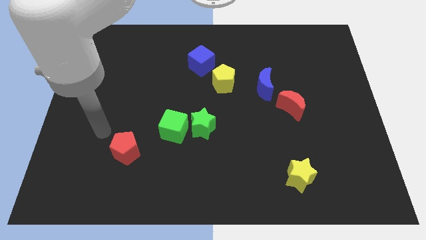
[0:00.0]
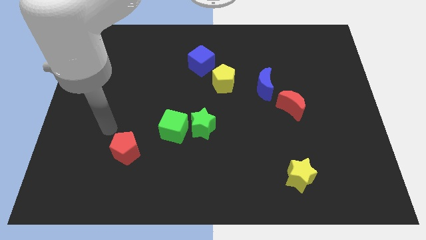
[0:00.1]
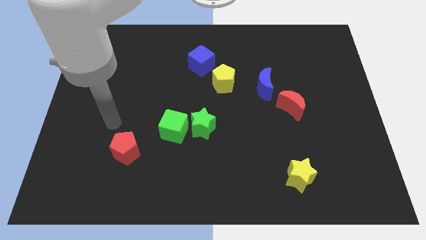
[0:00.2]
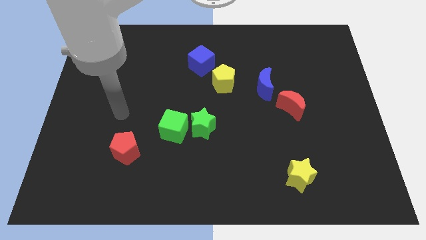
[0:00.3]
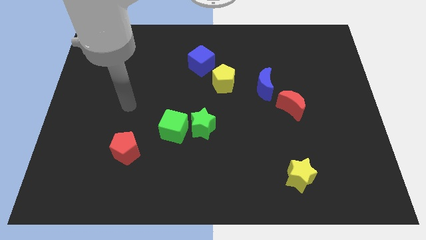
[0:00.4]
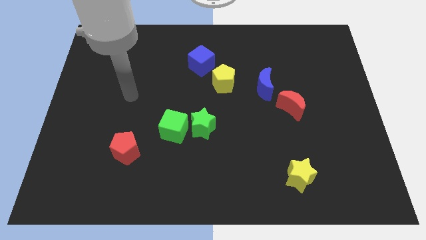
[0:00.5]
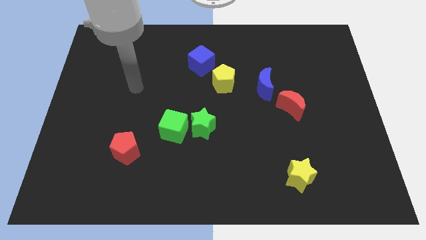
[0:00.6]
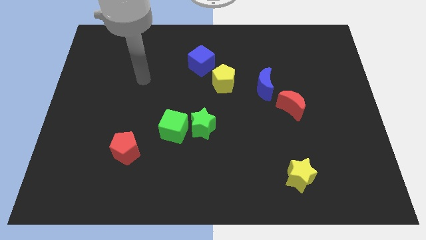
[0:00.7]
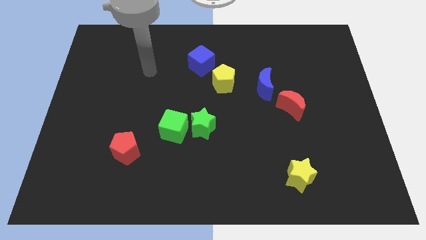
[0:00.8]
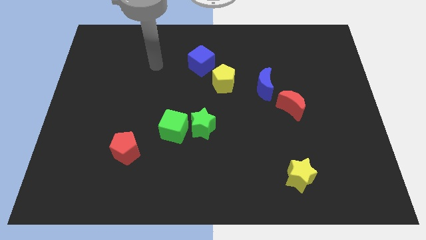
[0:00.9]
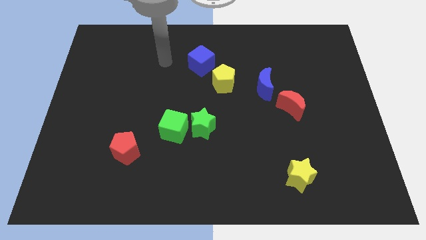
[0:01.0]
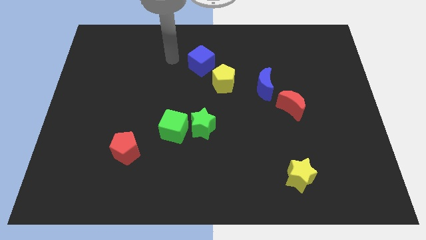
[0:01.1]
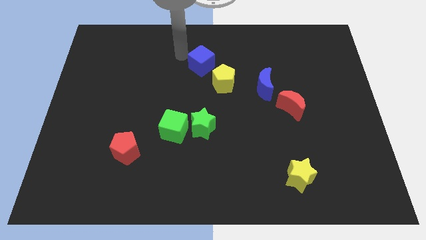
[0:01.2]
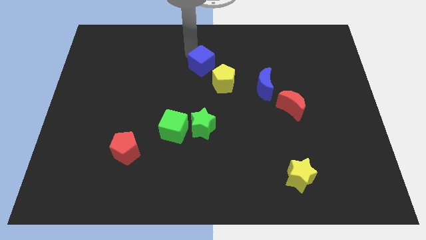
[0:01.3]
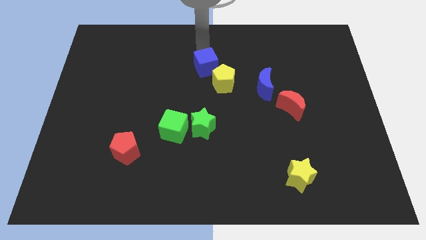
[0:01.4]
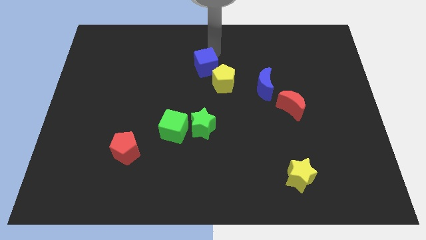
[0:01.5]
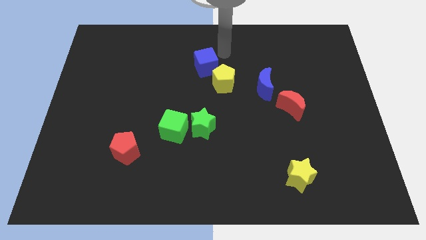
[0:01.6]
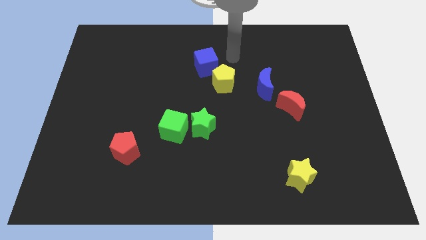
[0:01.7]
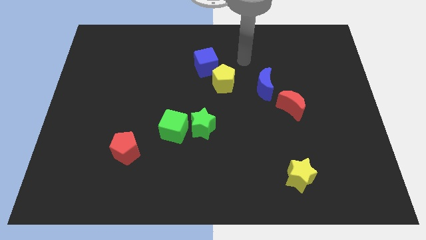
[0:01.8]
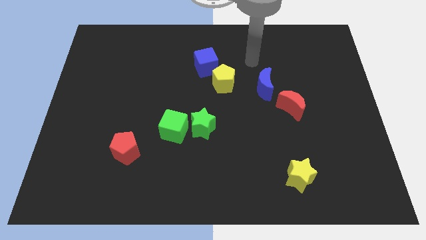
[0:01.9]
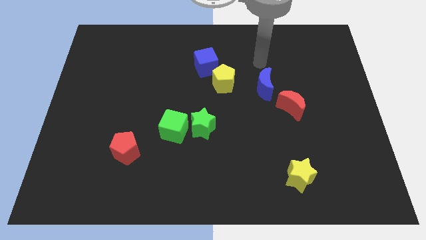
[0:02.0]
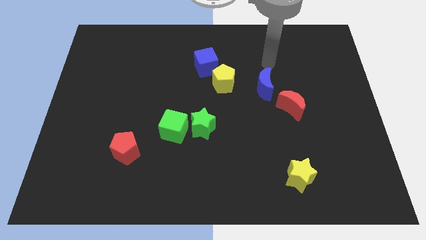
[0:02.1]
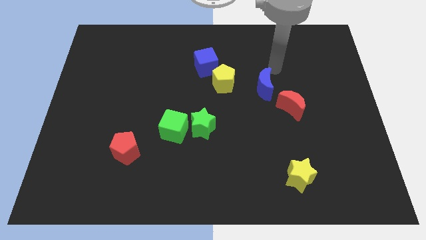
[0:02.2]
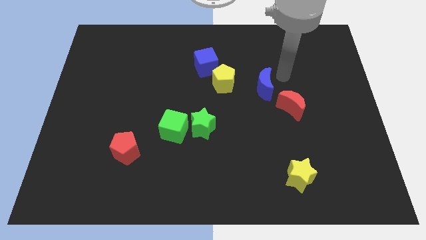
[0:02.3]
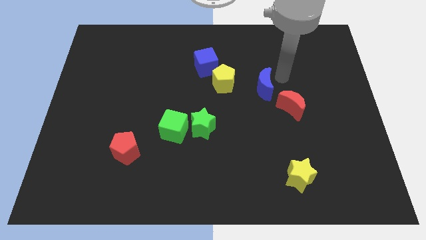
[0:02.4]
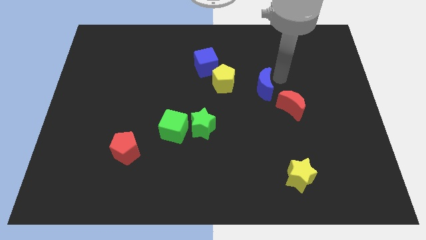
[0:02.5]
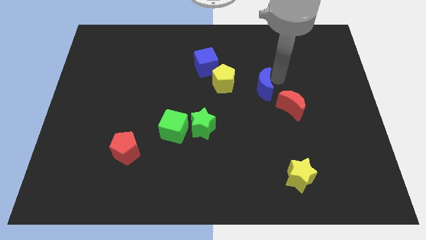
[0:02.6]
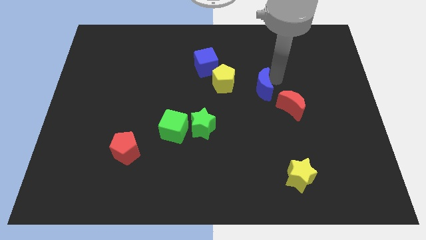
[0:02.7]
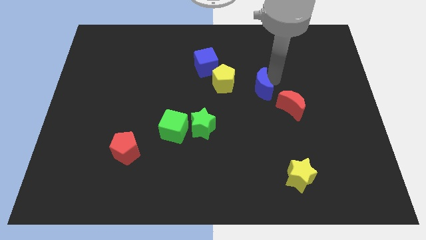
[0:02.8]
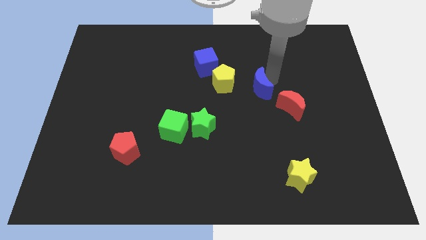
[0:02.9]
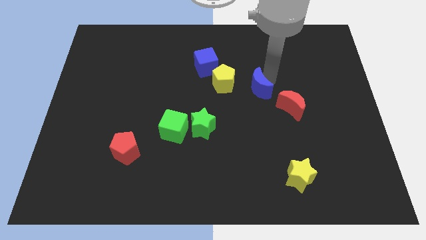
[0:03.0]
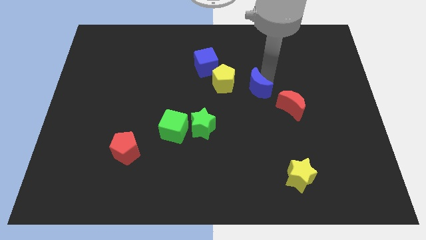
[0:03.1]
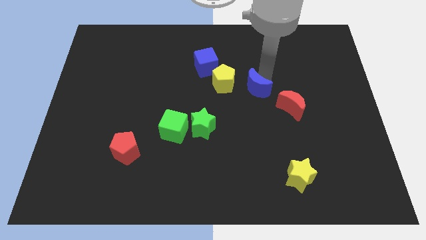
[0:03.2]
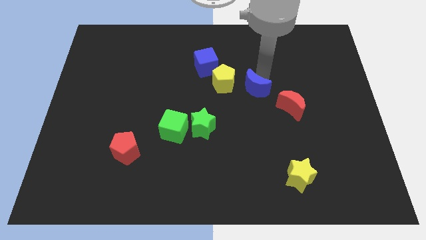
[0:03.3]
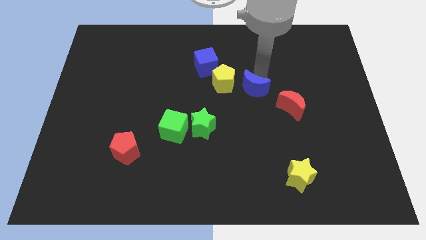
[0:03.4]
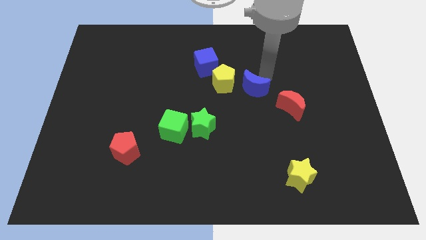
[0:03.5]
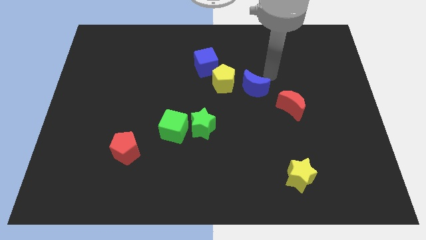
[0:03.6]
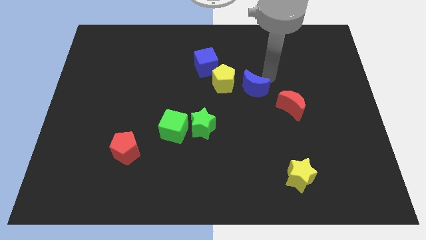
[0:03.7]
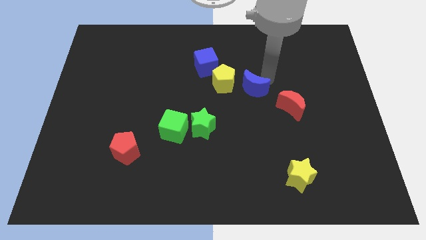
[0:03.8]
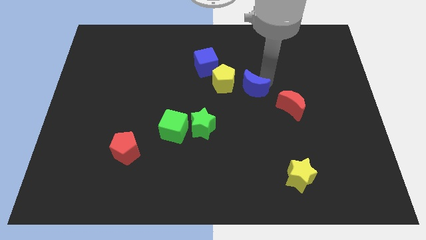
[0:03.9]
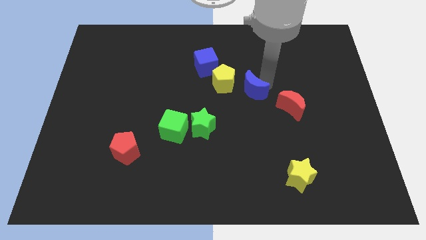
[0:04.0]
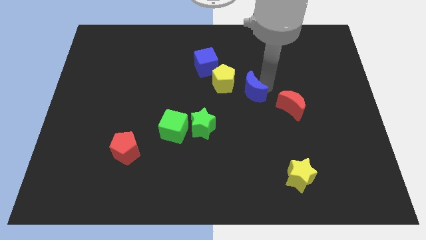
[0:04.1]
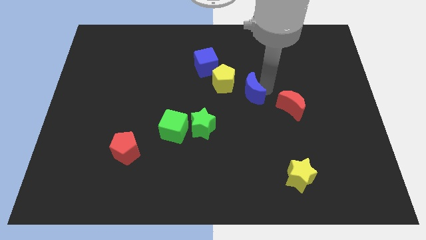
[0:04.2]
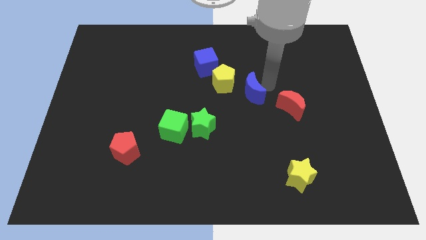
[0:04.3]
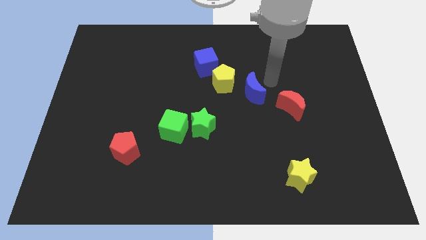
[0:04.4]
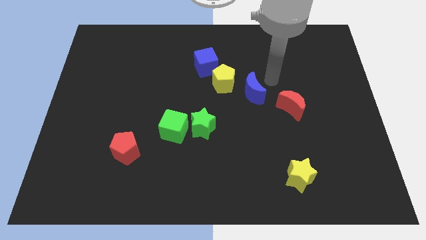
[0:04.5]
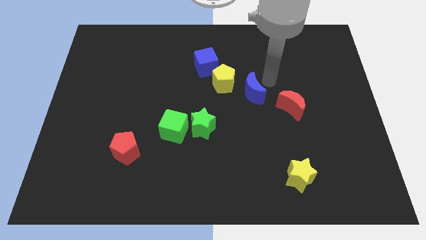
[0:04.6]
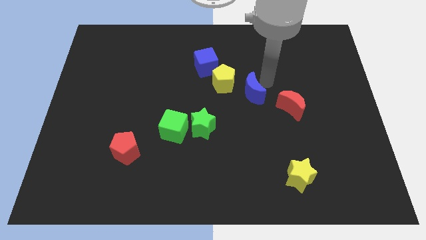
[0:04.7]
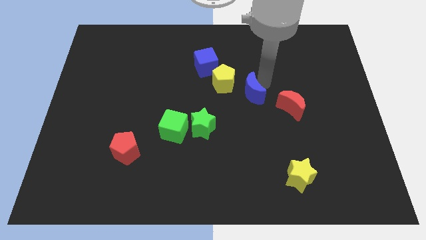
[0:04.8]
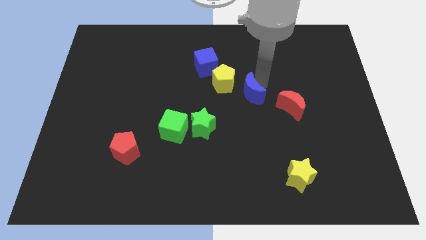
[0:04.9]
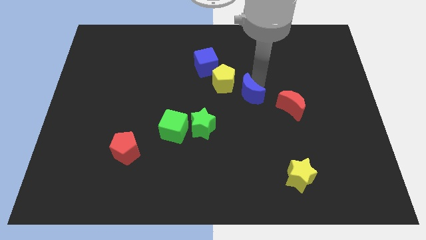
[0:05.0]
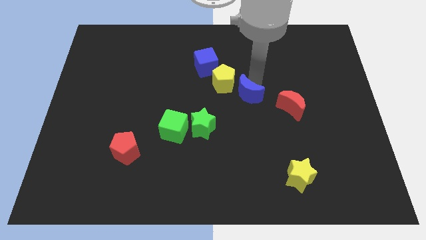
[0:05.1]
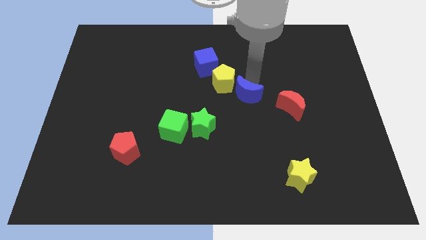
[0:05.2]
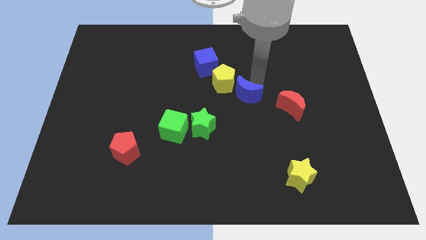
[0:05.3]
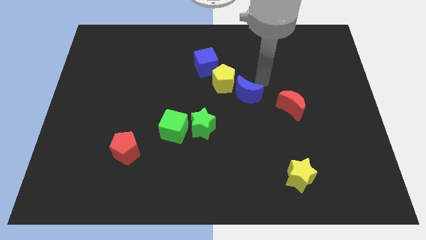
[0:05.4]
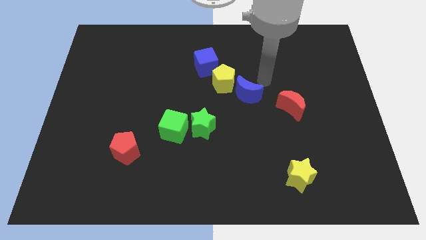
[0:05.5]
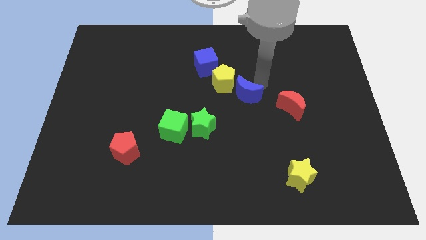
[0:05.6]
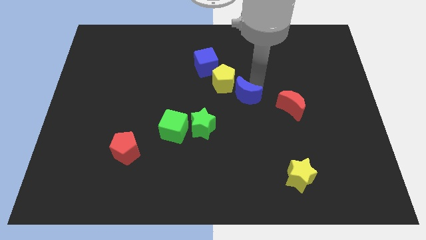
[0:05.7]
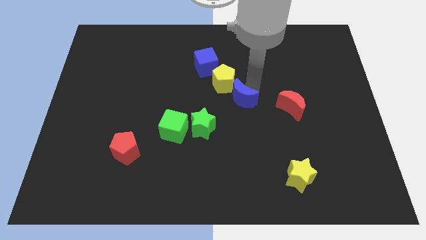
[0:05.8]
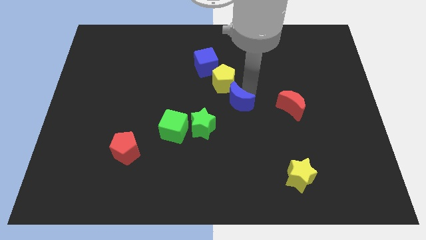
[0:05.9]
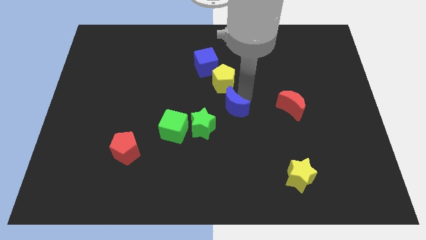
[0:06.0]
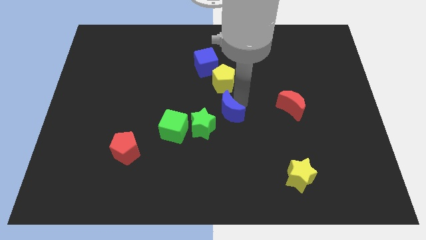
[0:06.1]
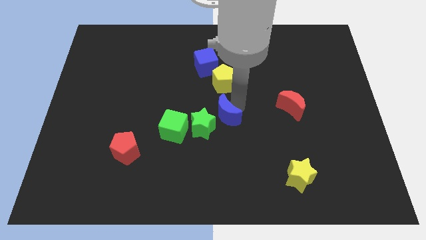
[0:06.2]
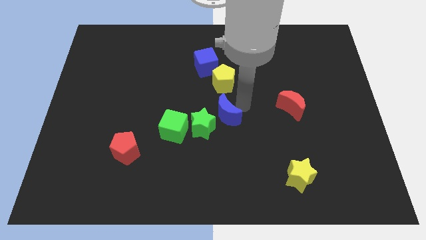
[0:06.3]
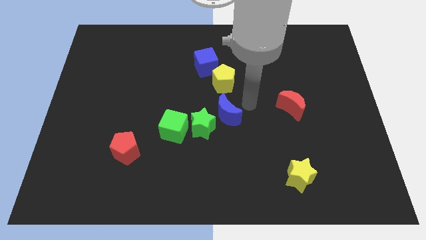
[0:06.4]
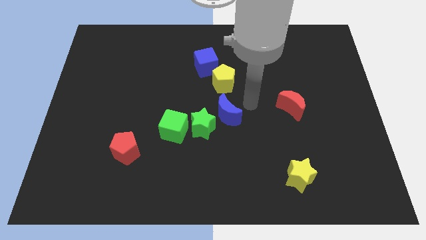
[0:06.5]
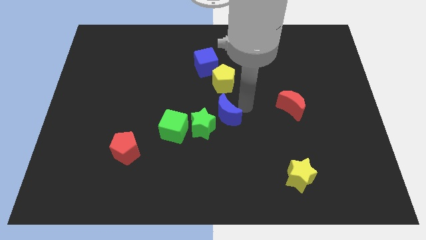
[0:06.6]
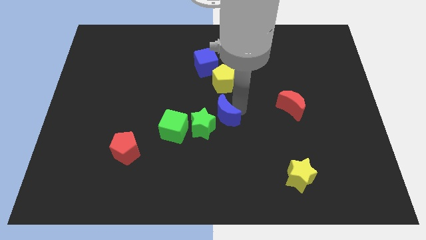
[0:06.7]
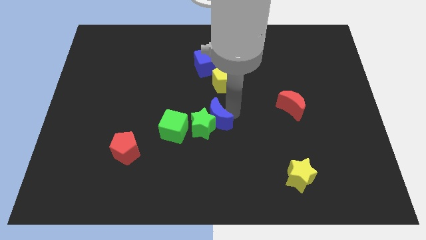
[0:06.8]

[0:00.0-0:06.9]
put the blue moon towards the green star
